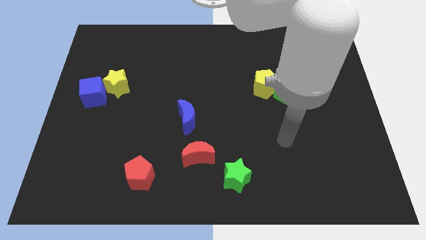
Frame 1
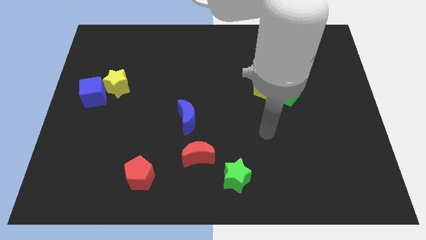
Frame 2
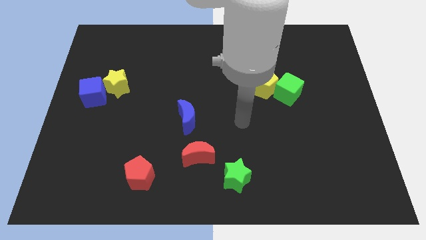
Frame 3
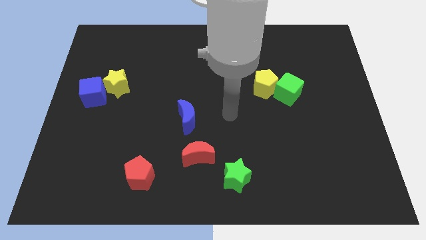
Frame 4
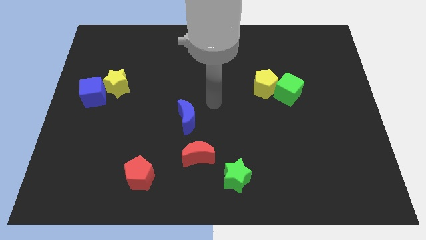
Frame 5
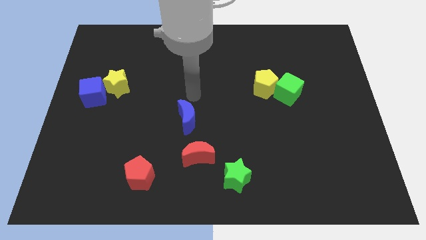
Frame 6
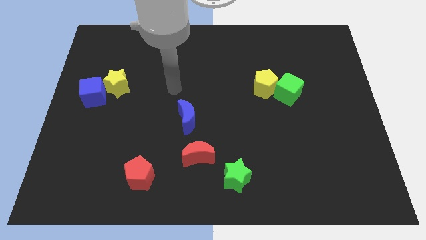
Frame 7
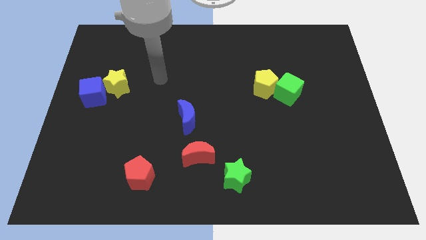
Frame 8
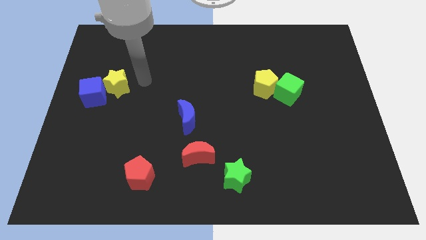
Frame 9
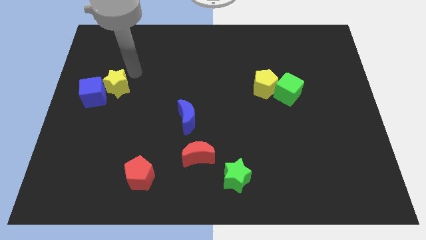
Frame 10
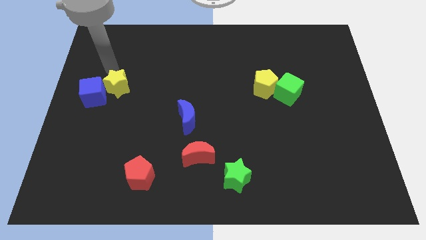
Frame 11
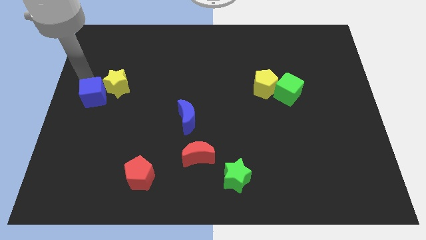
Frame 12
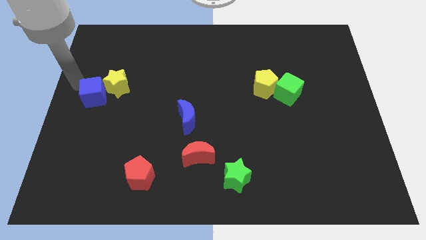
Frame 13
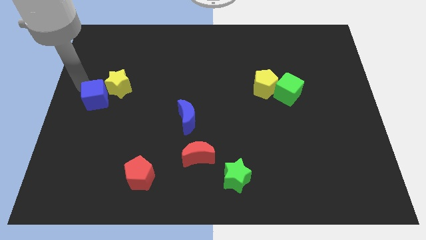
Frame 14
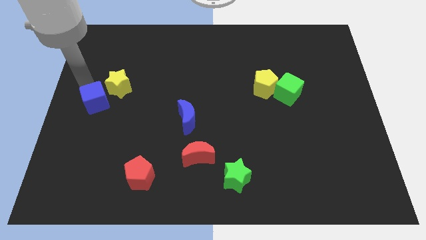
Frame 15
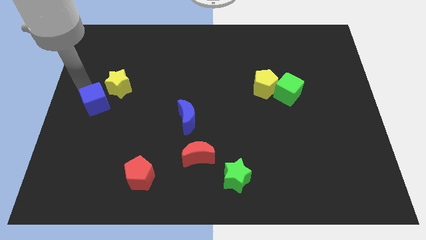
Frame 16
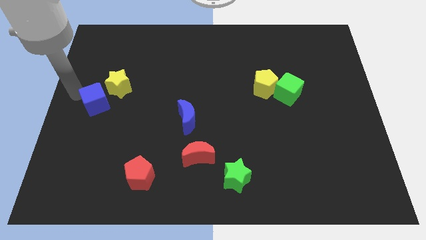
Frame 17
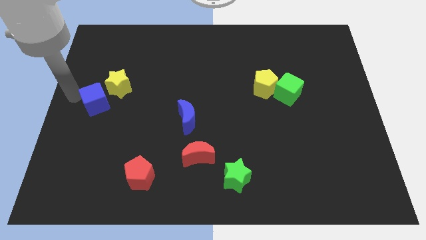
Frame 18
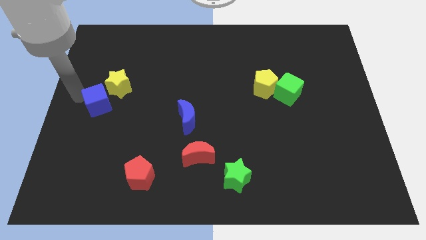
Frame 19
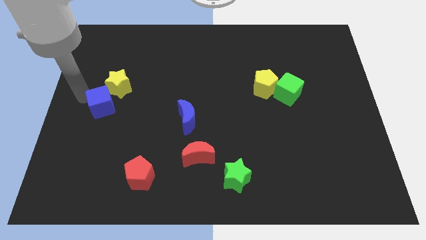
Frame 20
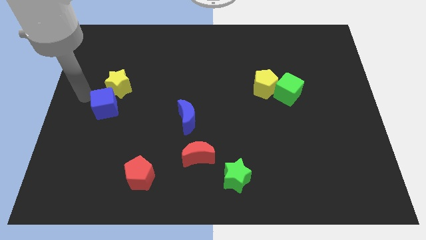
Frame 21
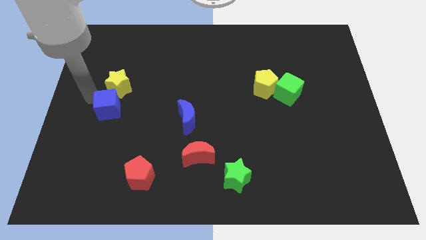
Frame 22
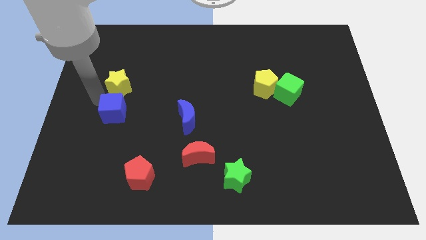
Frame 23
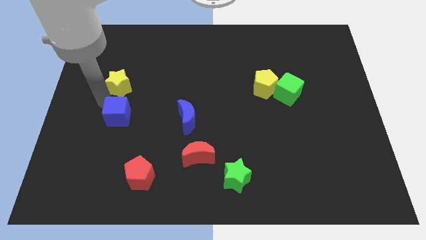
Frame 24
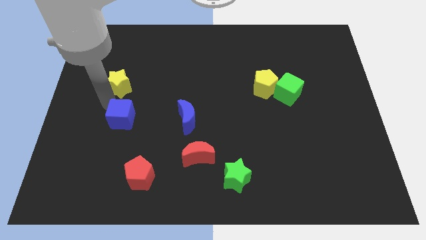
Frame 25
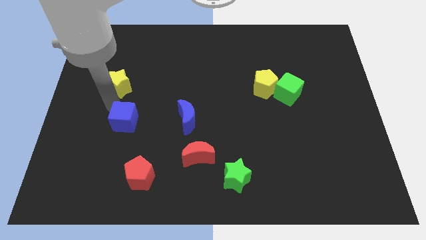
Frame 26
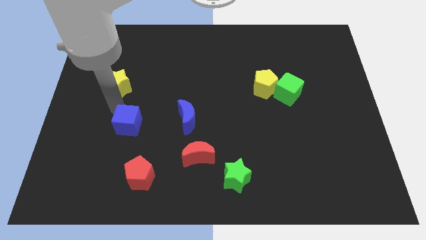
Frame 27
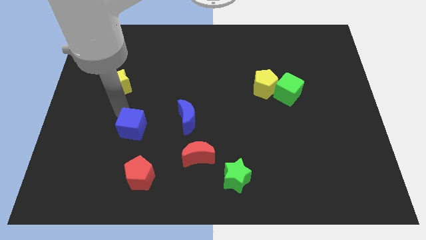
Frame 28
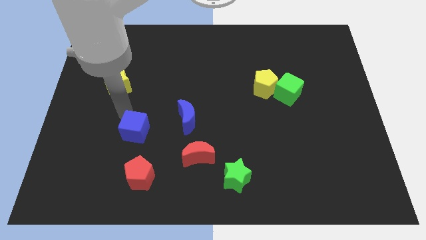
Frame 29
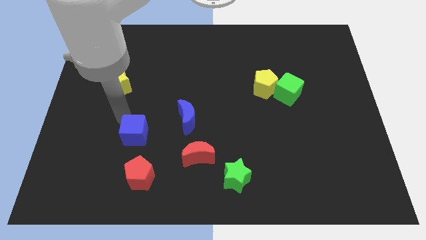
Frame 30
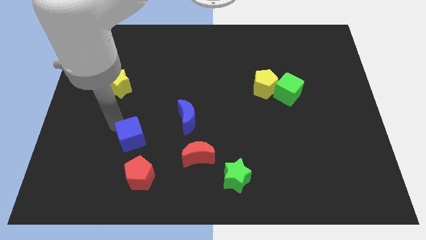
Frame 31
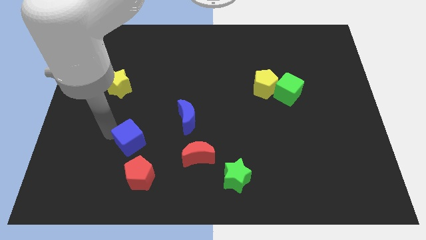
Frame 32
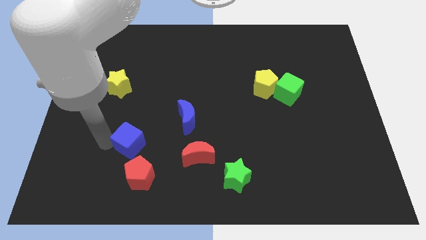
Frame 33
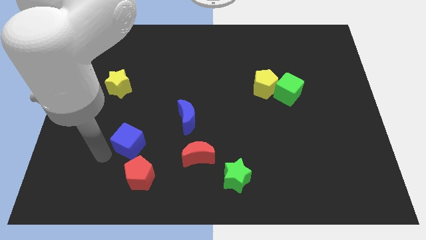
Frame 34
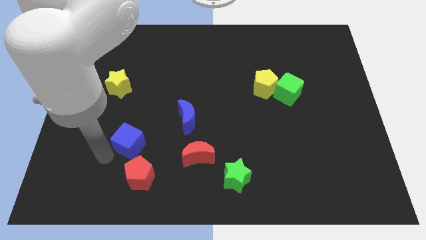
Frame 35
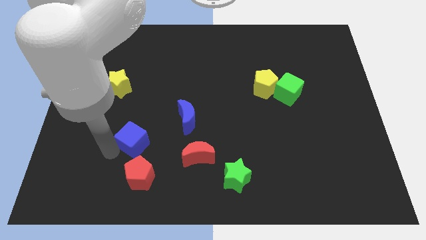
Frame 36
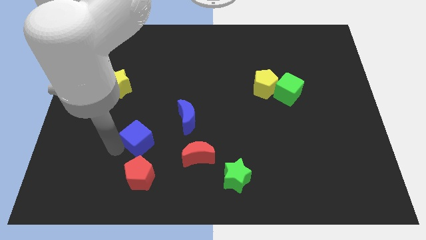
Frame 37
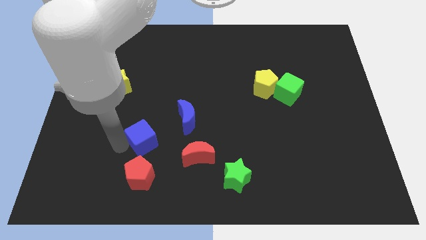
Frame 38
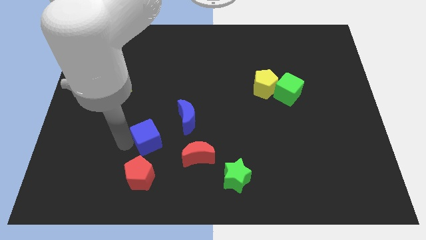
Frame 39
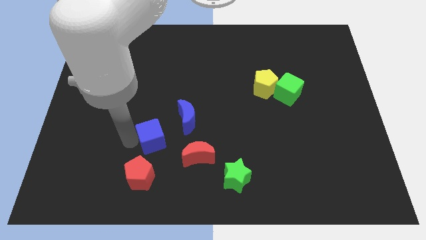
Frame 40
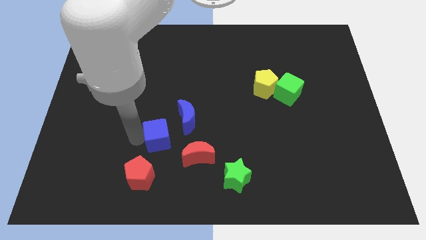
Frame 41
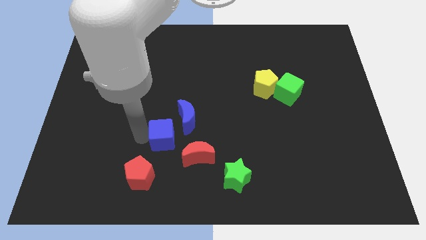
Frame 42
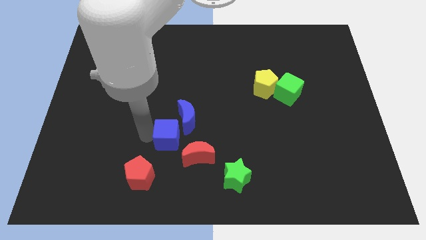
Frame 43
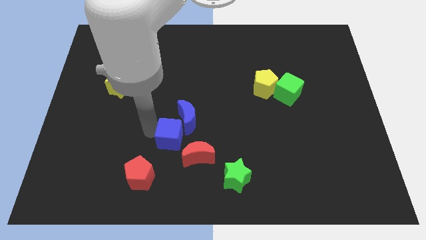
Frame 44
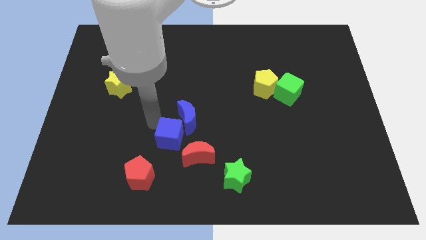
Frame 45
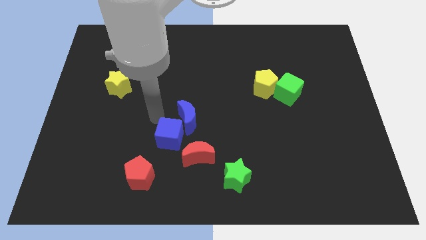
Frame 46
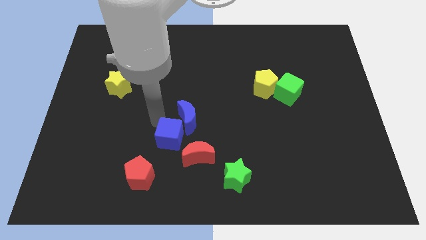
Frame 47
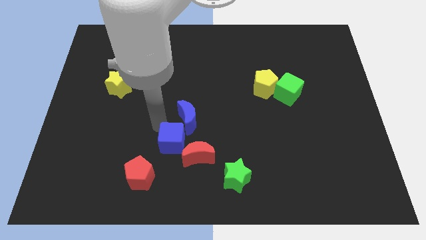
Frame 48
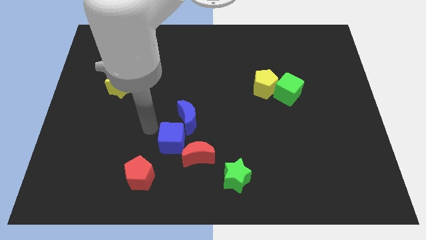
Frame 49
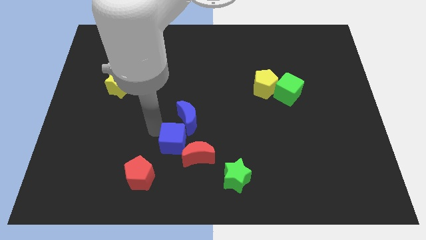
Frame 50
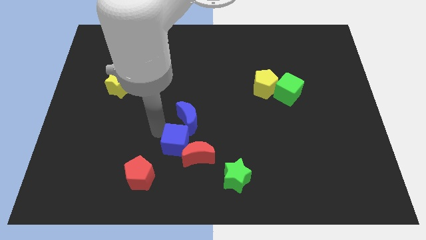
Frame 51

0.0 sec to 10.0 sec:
push the blue cube close to the red moon

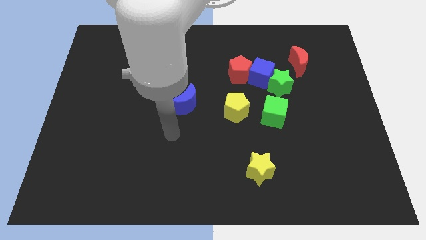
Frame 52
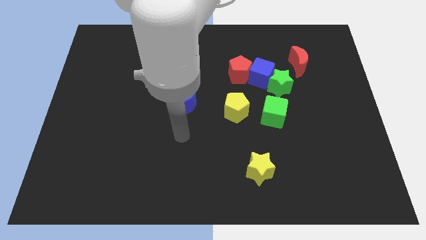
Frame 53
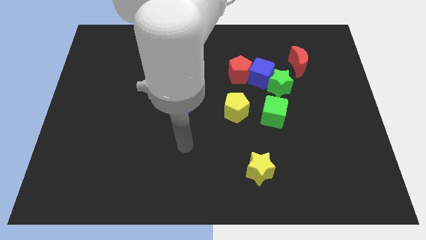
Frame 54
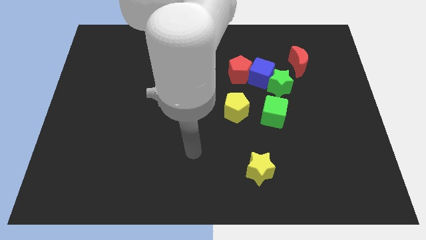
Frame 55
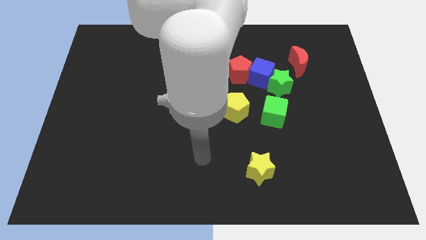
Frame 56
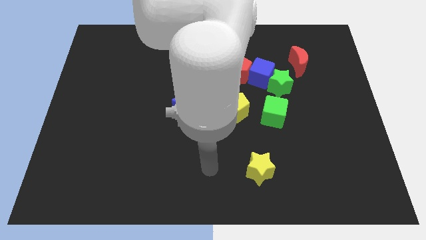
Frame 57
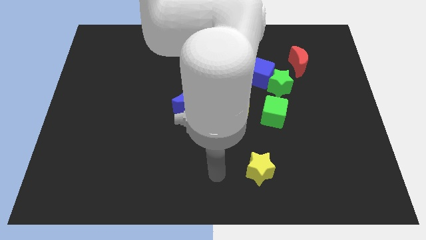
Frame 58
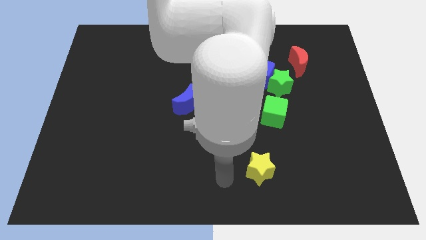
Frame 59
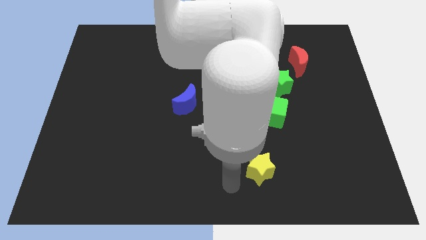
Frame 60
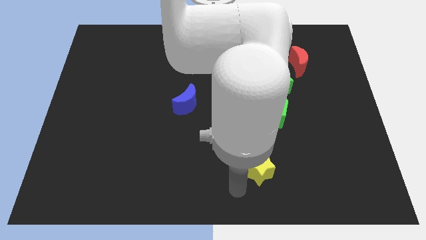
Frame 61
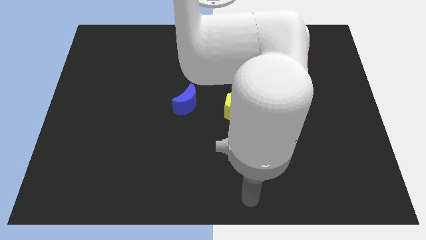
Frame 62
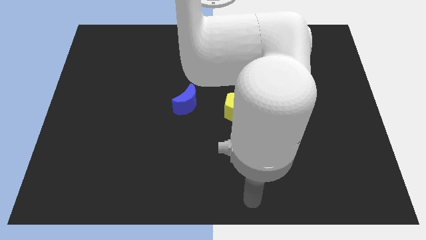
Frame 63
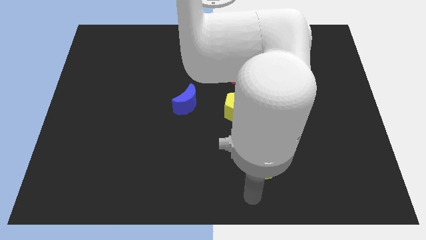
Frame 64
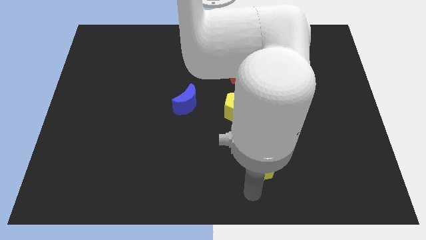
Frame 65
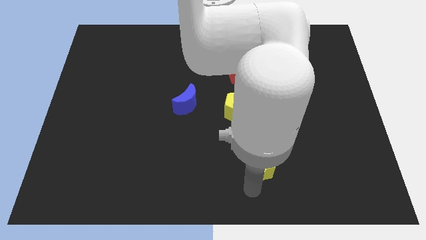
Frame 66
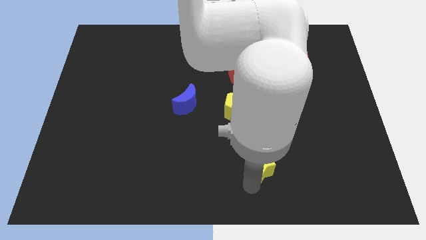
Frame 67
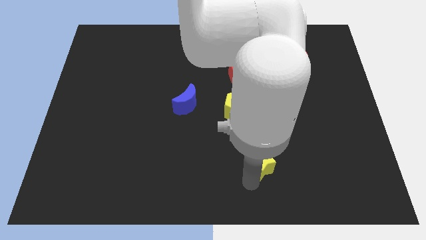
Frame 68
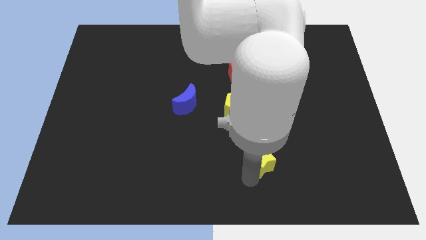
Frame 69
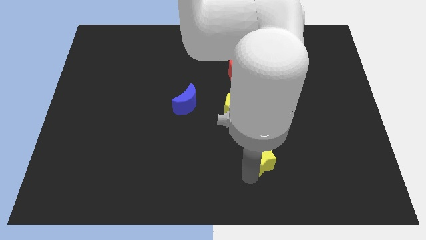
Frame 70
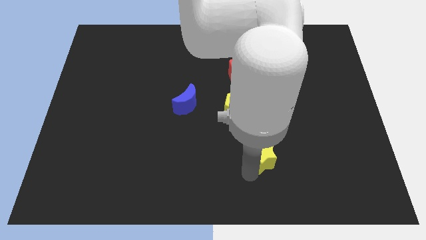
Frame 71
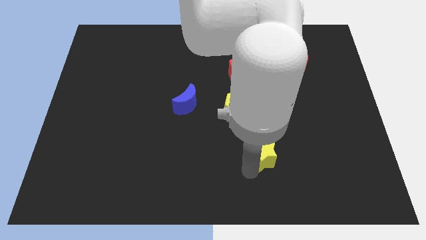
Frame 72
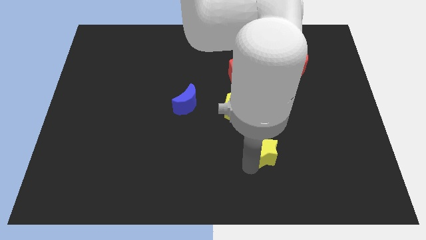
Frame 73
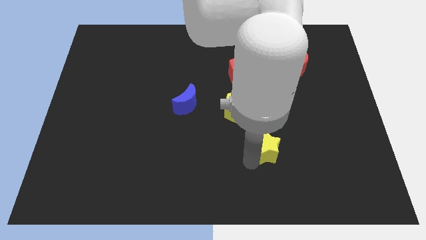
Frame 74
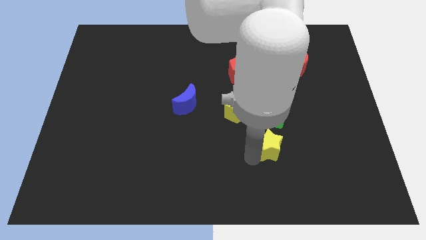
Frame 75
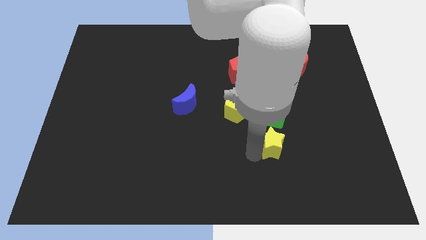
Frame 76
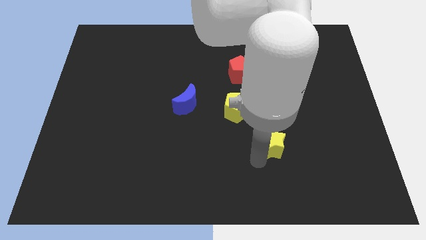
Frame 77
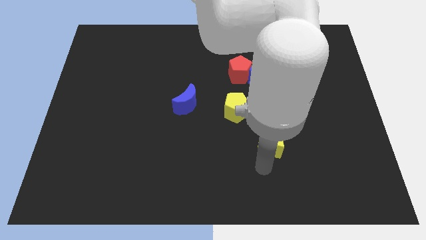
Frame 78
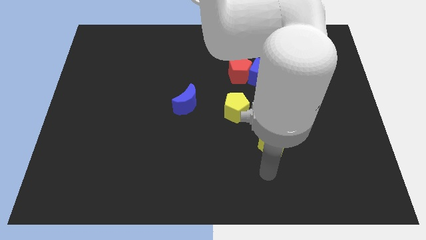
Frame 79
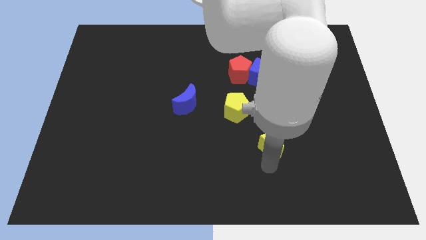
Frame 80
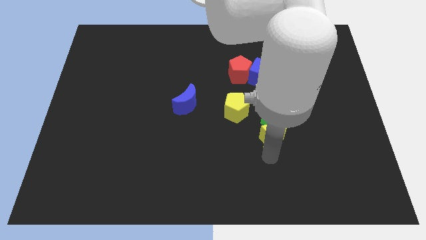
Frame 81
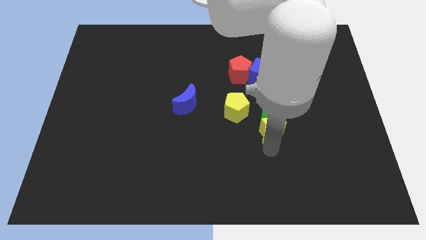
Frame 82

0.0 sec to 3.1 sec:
move the yellow star close to the green cube
